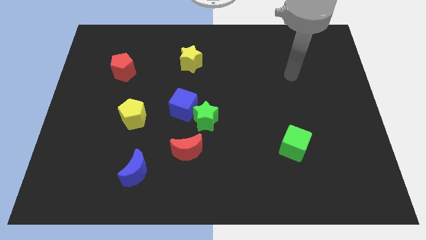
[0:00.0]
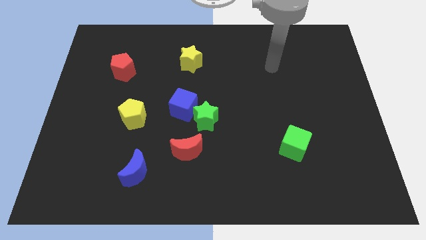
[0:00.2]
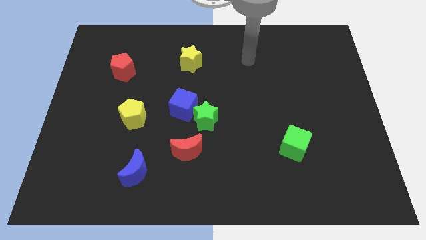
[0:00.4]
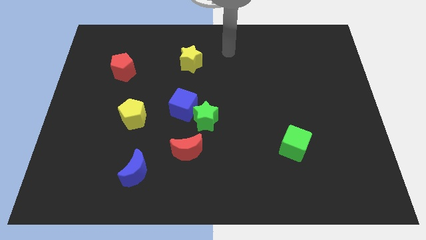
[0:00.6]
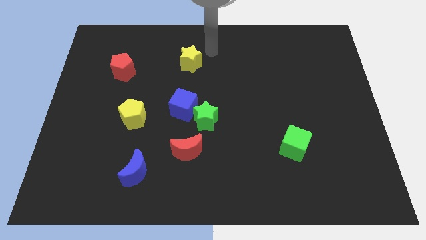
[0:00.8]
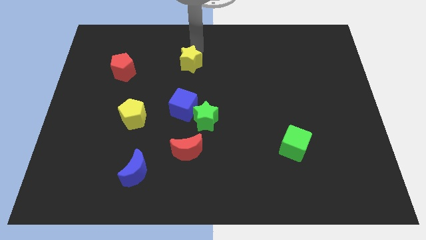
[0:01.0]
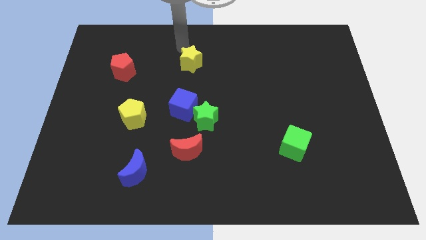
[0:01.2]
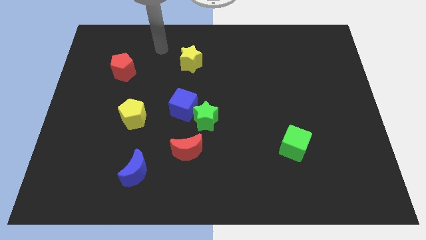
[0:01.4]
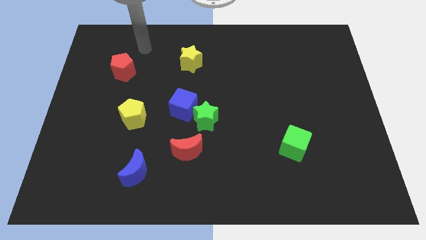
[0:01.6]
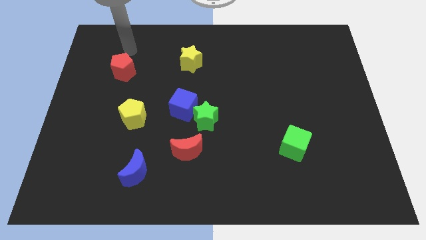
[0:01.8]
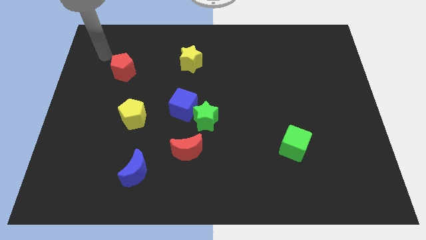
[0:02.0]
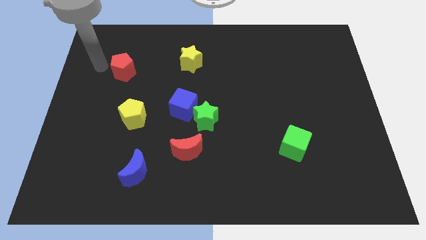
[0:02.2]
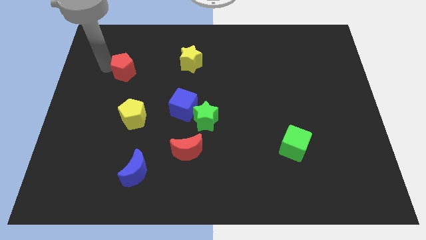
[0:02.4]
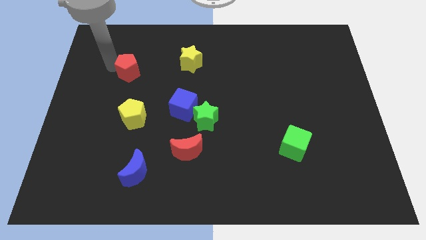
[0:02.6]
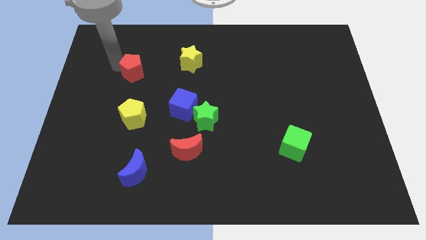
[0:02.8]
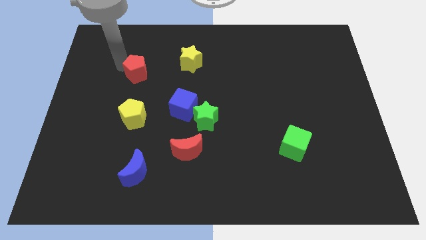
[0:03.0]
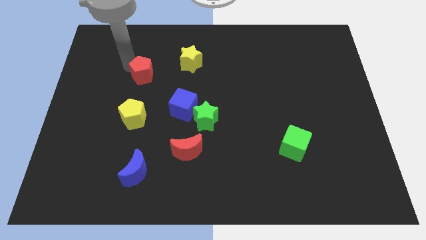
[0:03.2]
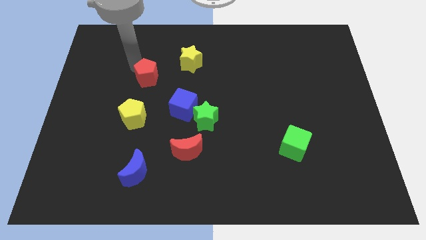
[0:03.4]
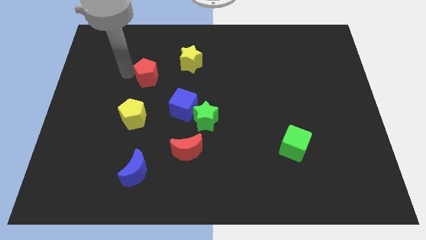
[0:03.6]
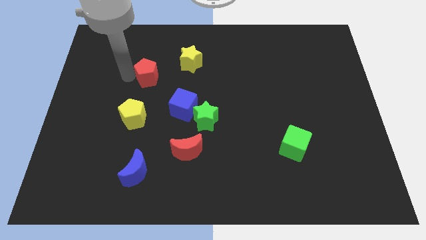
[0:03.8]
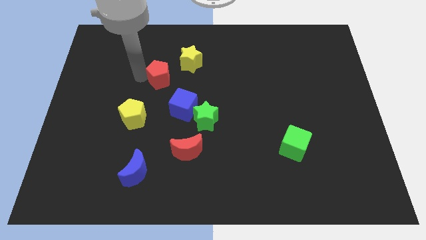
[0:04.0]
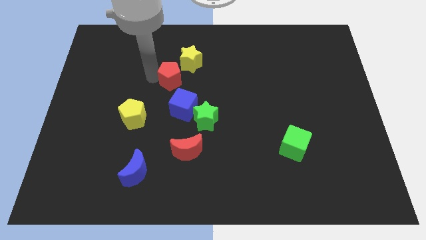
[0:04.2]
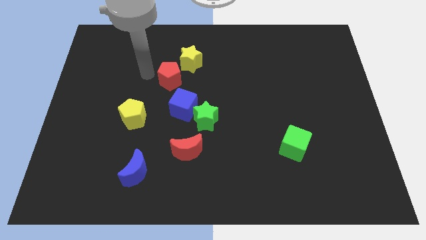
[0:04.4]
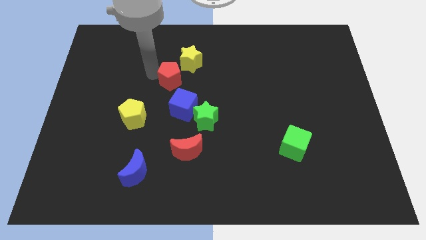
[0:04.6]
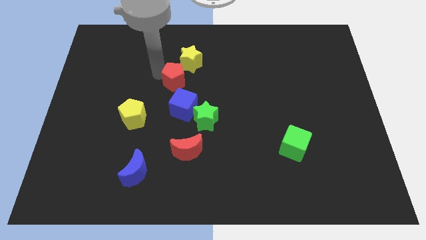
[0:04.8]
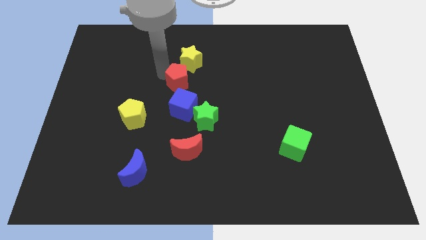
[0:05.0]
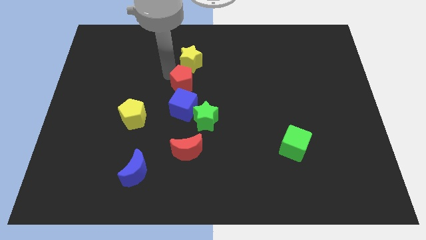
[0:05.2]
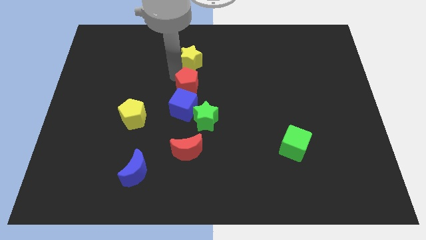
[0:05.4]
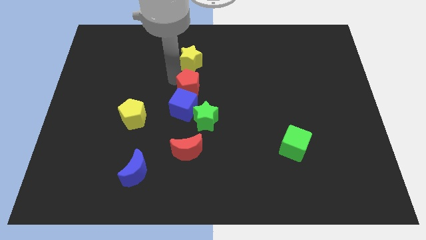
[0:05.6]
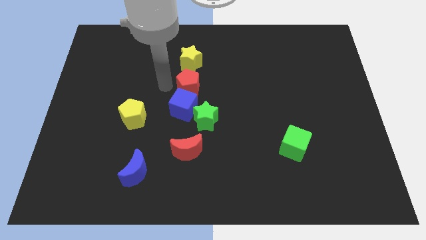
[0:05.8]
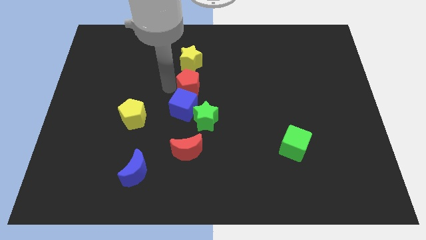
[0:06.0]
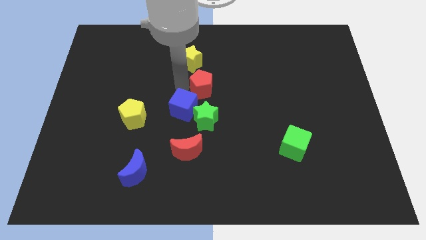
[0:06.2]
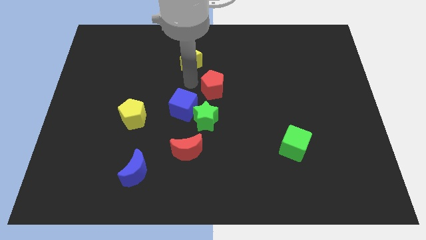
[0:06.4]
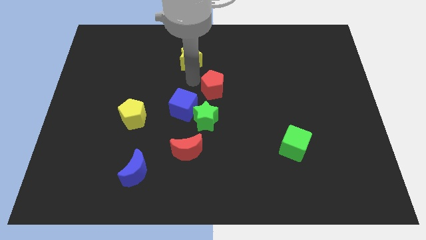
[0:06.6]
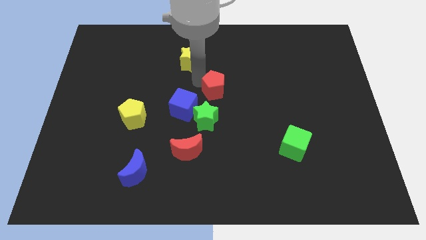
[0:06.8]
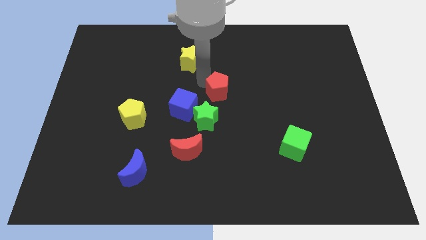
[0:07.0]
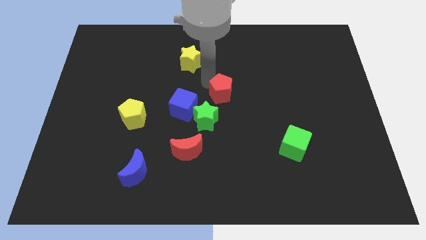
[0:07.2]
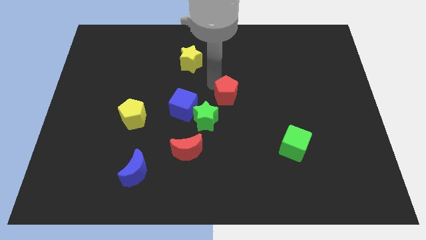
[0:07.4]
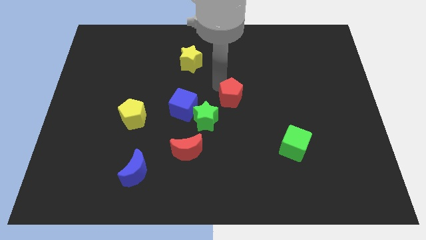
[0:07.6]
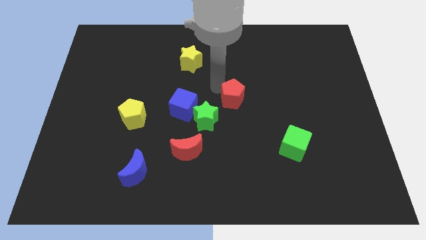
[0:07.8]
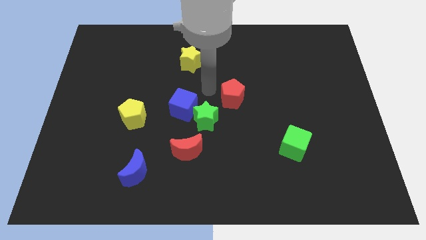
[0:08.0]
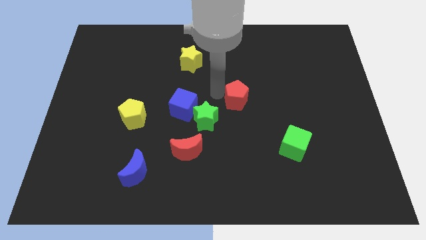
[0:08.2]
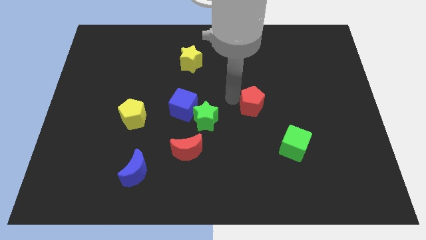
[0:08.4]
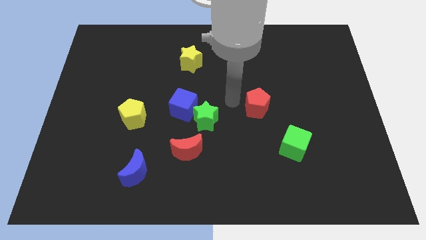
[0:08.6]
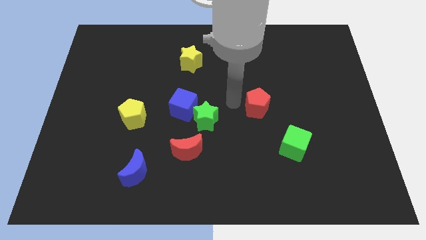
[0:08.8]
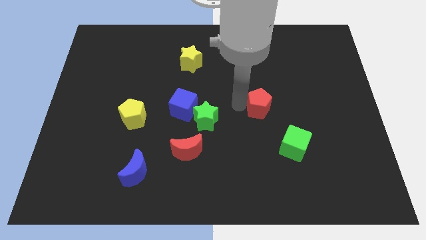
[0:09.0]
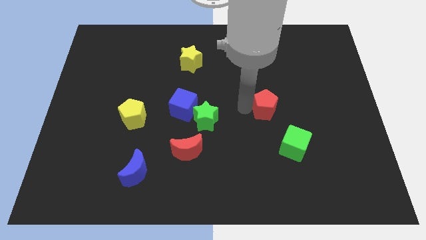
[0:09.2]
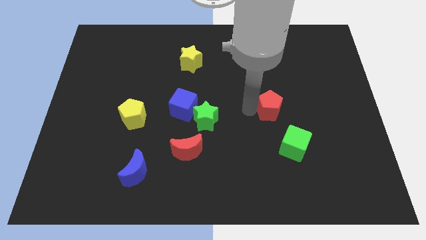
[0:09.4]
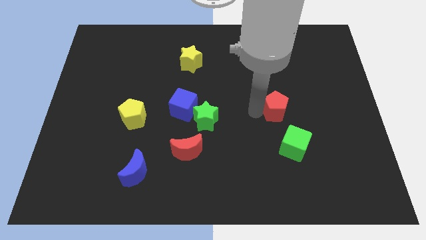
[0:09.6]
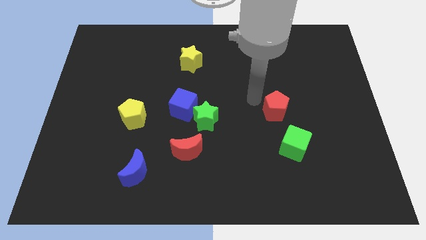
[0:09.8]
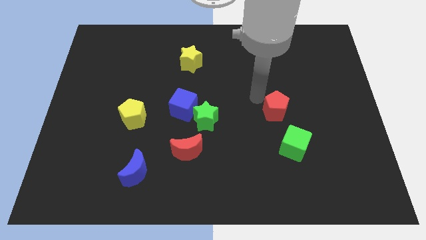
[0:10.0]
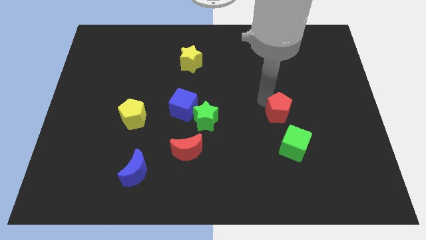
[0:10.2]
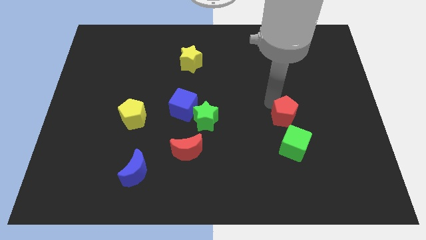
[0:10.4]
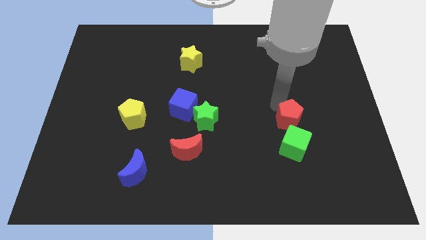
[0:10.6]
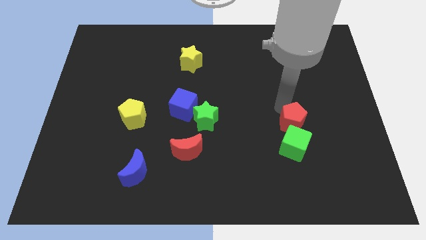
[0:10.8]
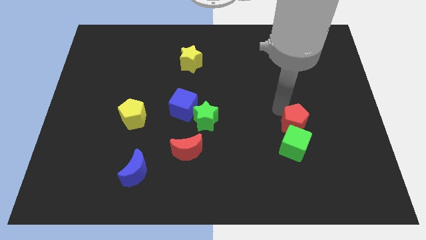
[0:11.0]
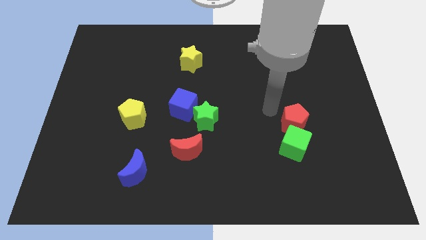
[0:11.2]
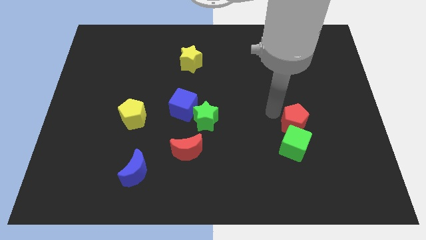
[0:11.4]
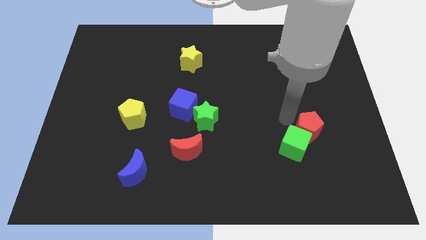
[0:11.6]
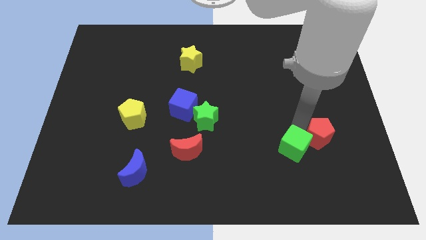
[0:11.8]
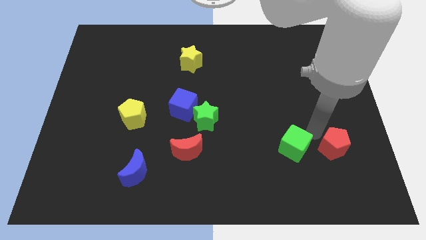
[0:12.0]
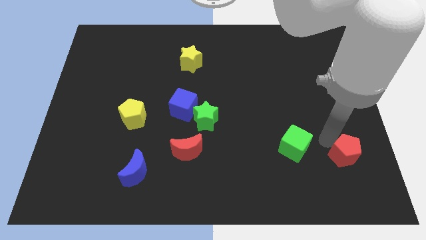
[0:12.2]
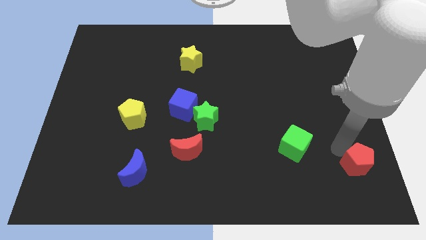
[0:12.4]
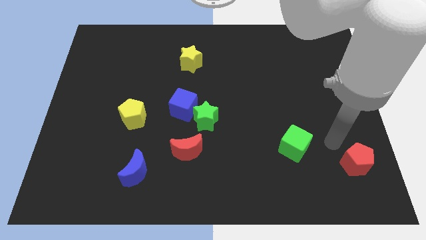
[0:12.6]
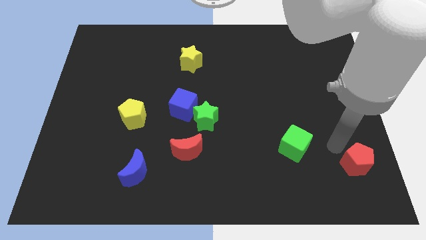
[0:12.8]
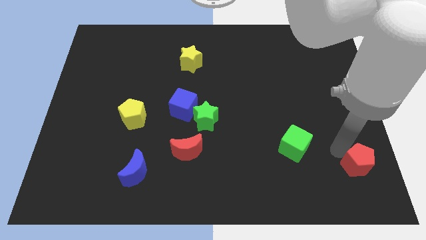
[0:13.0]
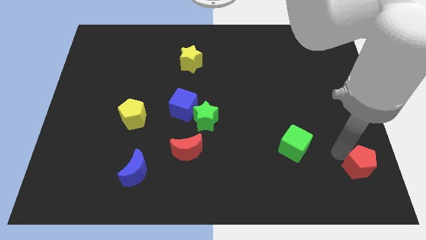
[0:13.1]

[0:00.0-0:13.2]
put the red pentagon to the bottom right of the board

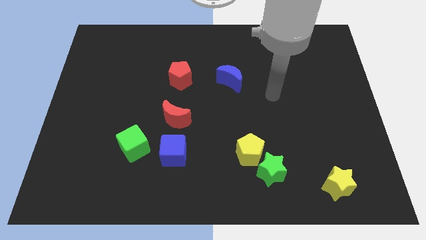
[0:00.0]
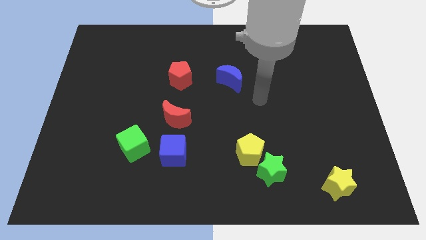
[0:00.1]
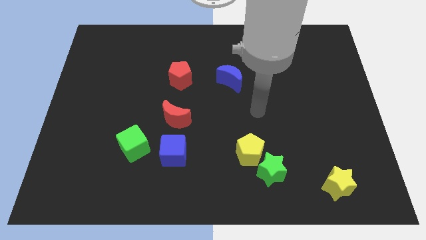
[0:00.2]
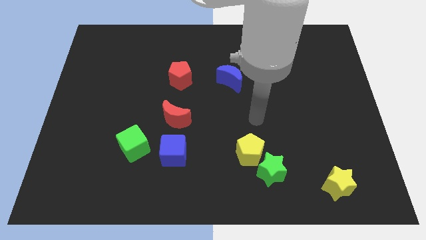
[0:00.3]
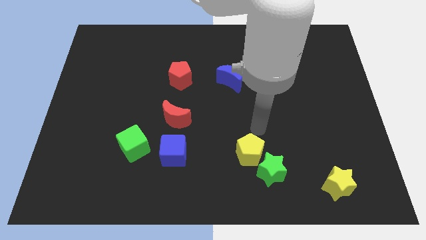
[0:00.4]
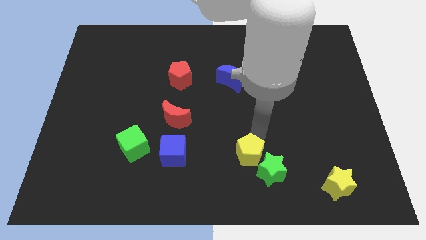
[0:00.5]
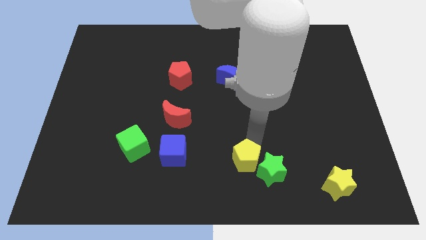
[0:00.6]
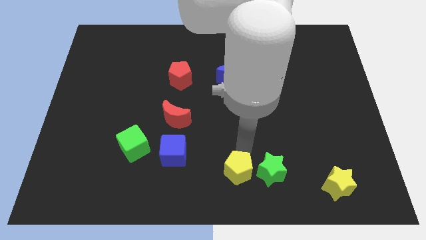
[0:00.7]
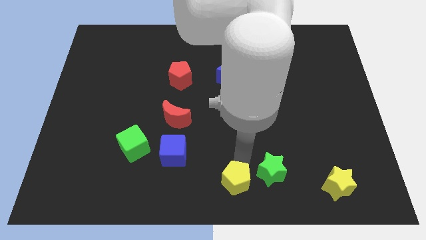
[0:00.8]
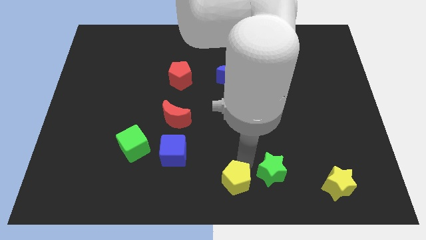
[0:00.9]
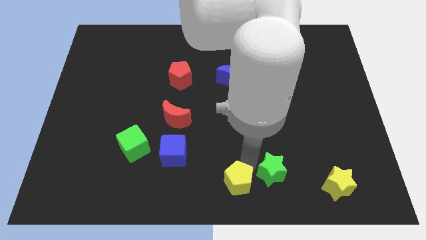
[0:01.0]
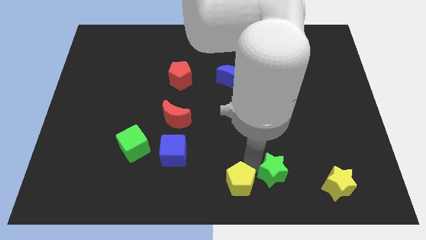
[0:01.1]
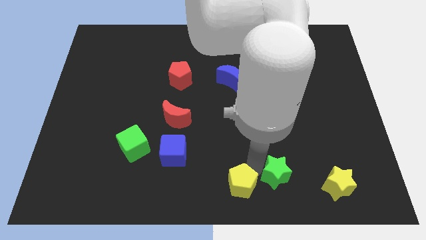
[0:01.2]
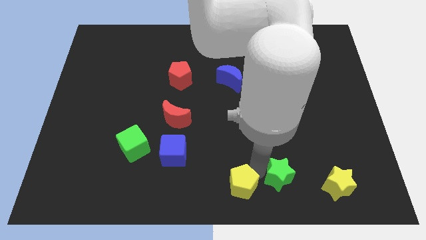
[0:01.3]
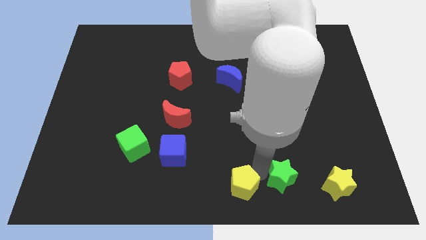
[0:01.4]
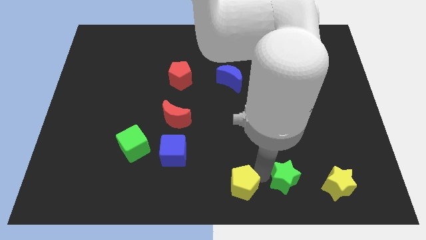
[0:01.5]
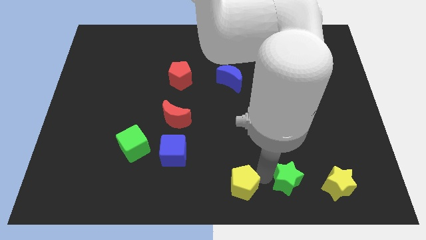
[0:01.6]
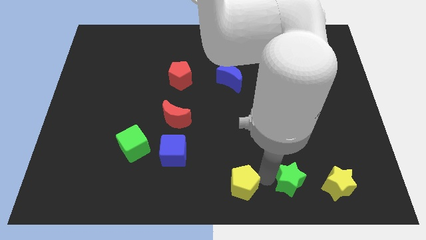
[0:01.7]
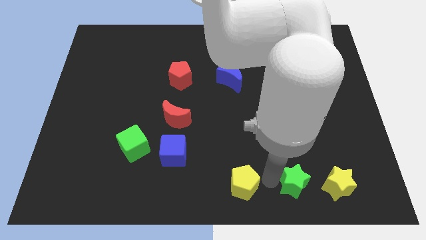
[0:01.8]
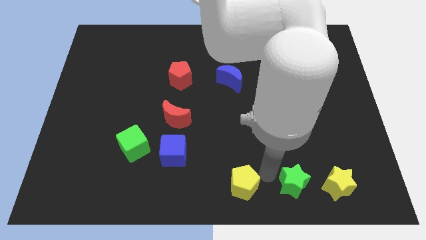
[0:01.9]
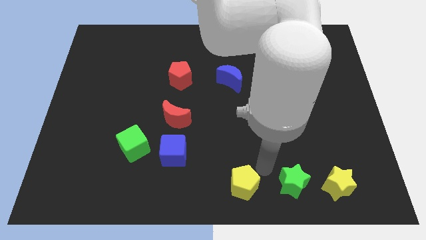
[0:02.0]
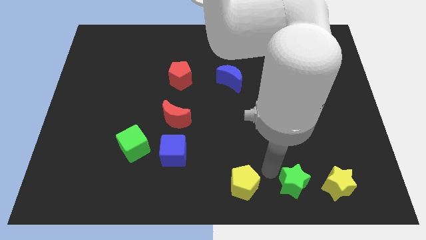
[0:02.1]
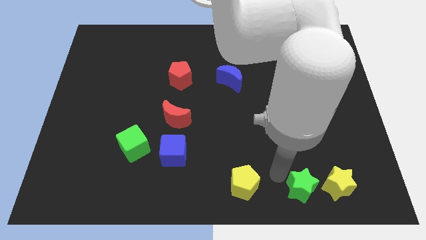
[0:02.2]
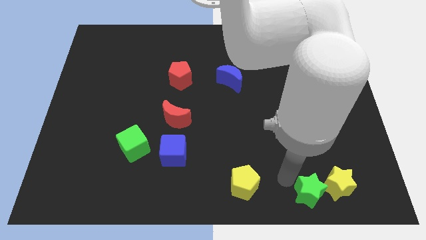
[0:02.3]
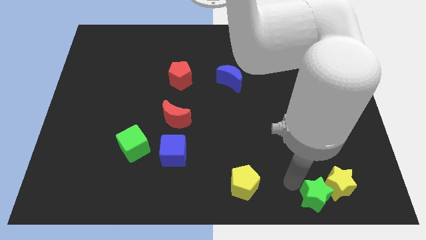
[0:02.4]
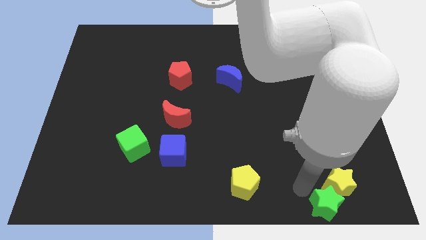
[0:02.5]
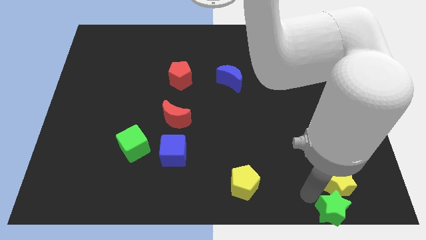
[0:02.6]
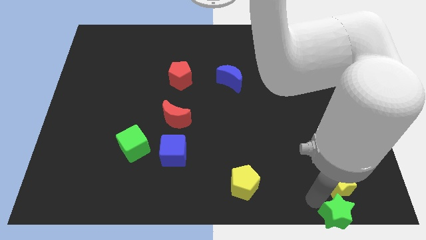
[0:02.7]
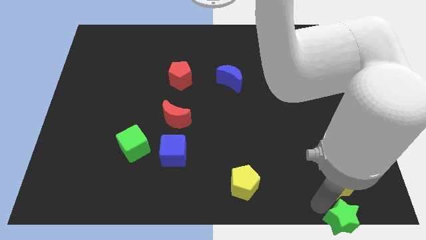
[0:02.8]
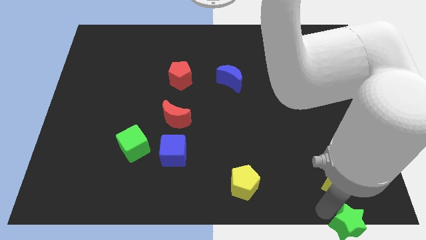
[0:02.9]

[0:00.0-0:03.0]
put the green star to the bottom right corner
